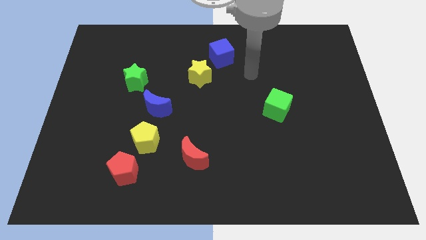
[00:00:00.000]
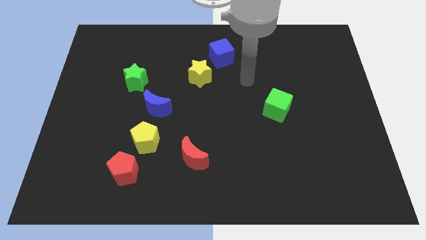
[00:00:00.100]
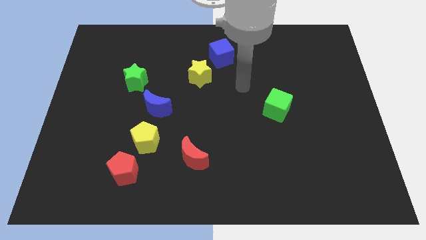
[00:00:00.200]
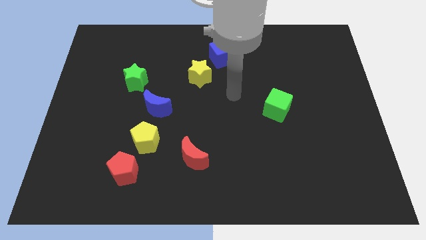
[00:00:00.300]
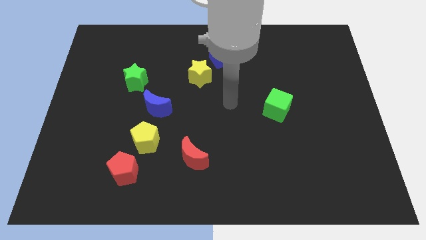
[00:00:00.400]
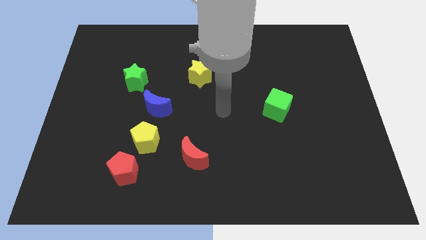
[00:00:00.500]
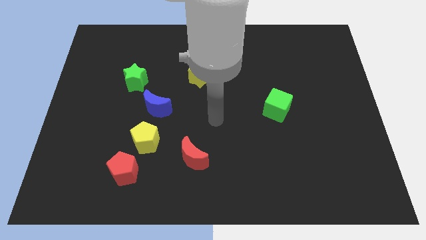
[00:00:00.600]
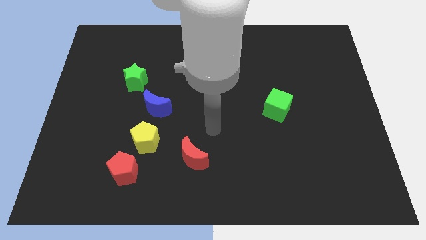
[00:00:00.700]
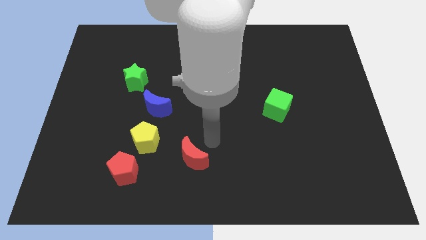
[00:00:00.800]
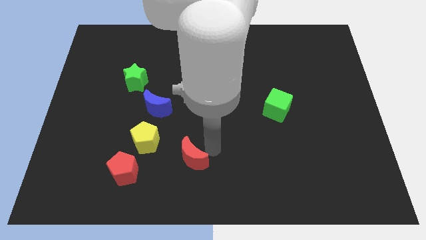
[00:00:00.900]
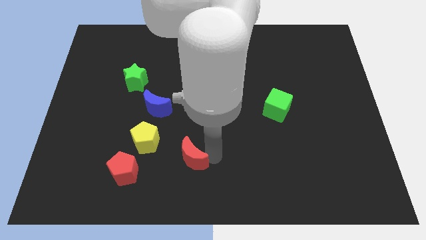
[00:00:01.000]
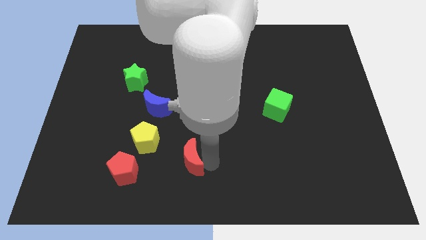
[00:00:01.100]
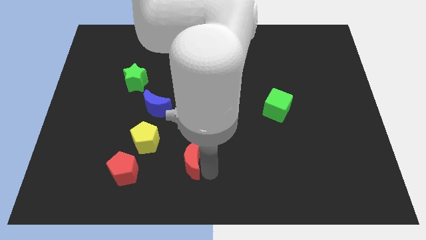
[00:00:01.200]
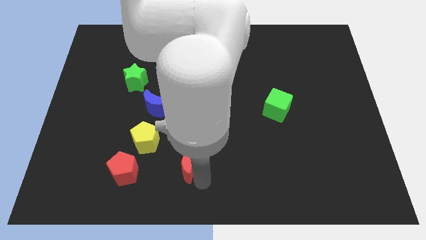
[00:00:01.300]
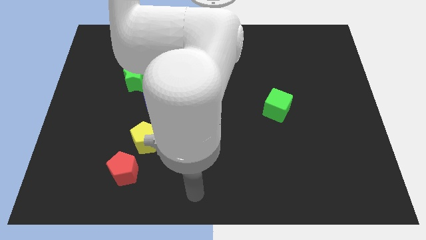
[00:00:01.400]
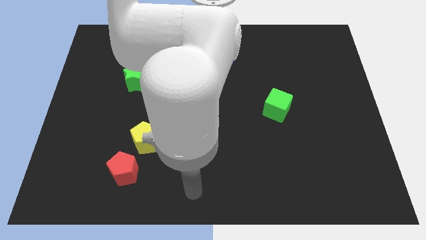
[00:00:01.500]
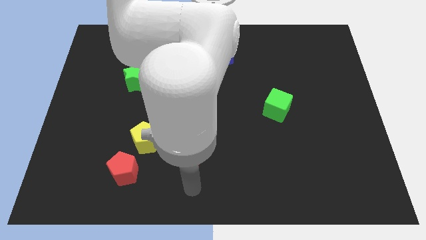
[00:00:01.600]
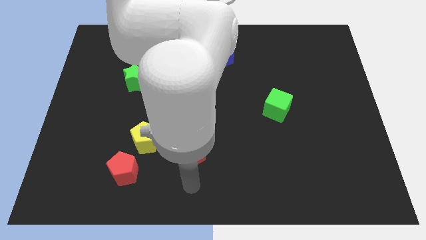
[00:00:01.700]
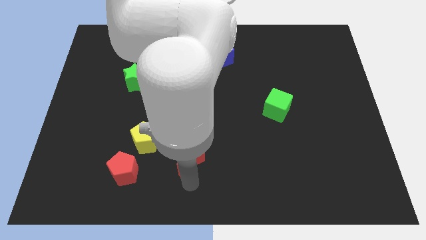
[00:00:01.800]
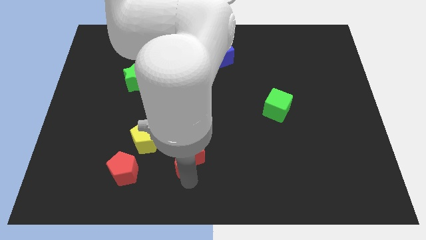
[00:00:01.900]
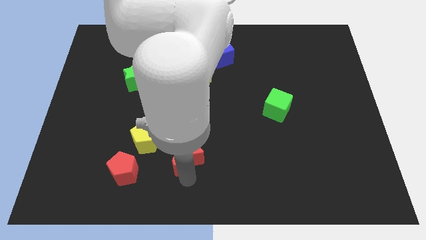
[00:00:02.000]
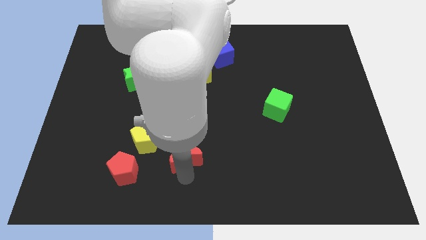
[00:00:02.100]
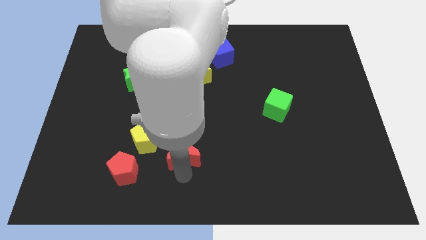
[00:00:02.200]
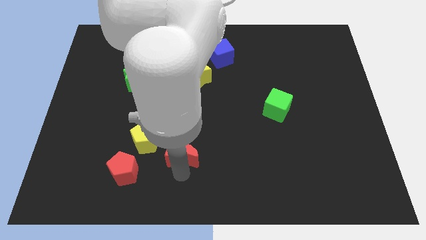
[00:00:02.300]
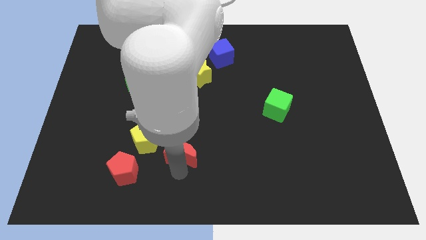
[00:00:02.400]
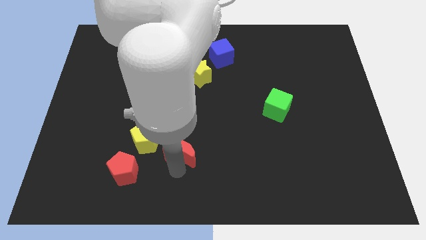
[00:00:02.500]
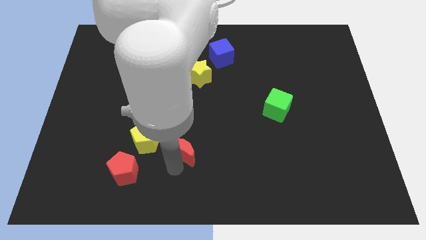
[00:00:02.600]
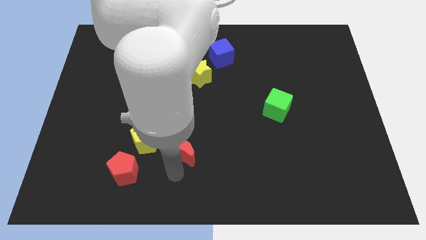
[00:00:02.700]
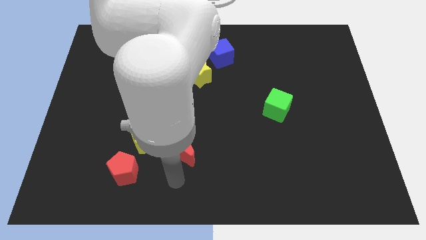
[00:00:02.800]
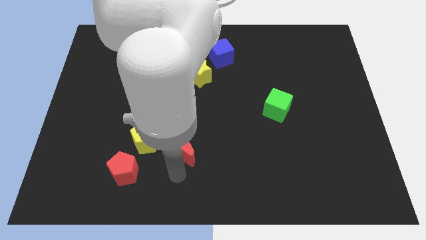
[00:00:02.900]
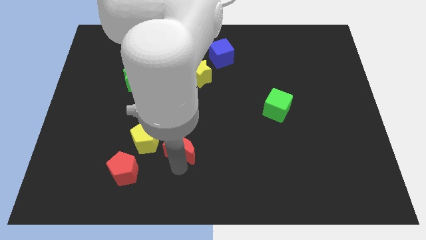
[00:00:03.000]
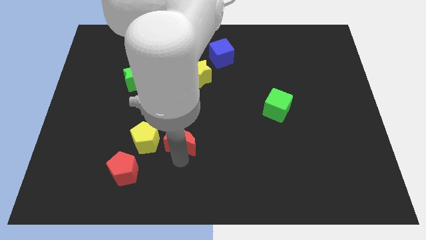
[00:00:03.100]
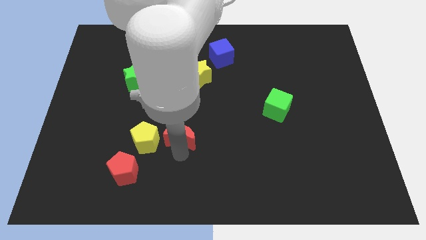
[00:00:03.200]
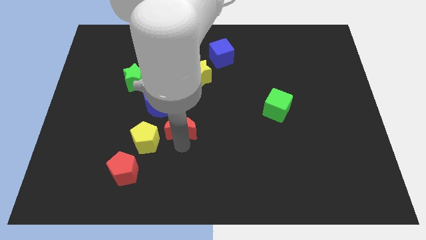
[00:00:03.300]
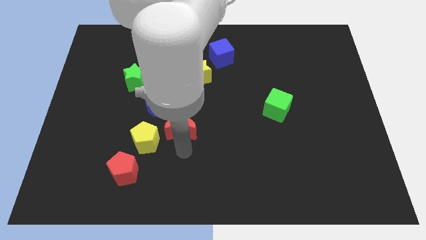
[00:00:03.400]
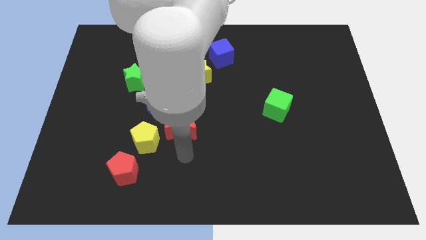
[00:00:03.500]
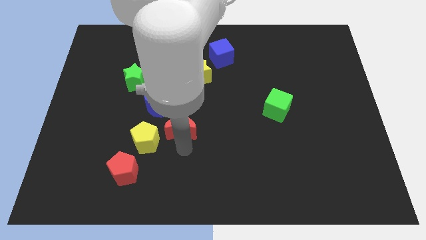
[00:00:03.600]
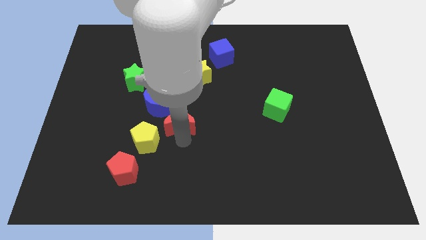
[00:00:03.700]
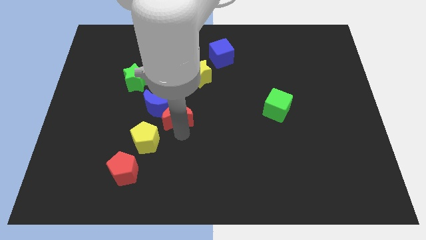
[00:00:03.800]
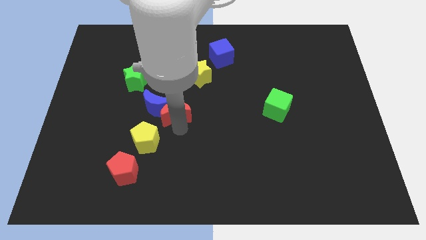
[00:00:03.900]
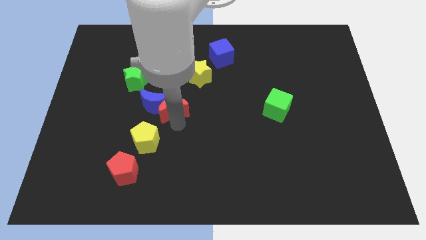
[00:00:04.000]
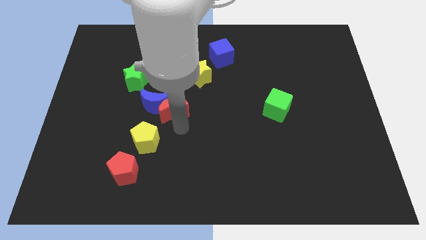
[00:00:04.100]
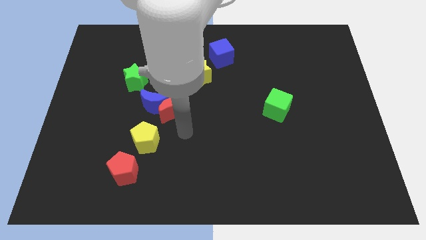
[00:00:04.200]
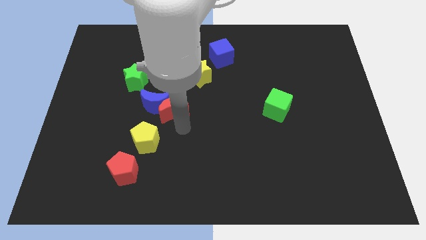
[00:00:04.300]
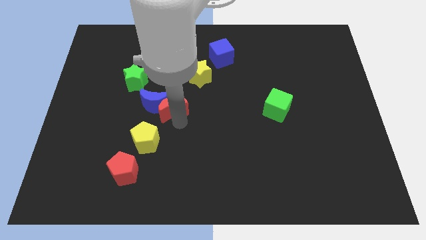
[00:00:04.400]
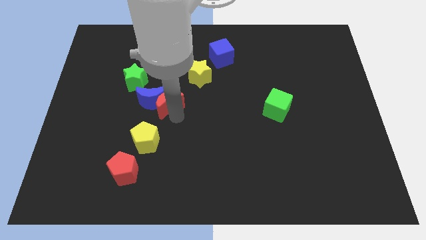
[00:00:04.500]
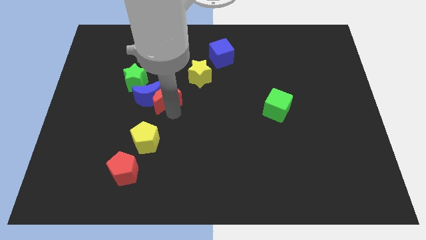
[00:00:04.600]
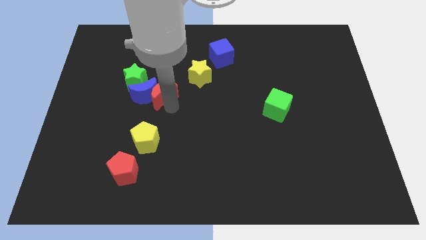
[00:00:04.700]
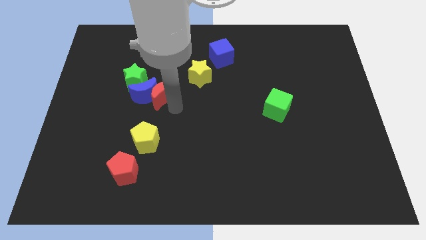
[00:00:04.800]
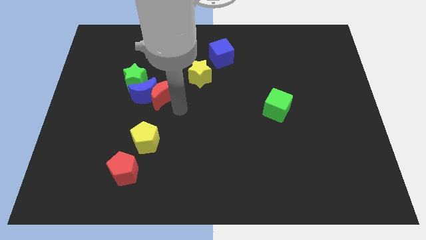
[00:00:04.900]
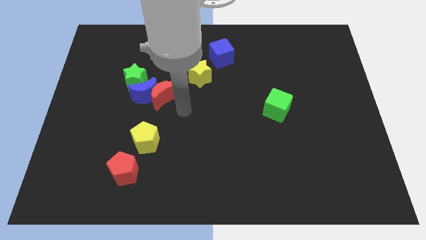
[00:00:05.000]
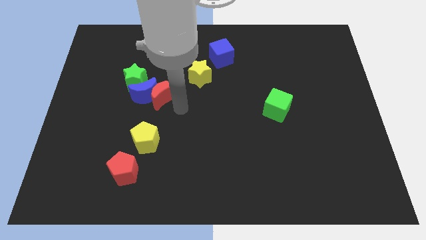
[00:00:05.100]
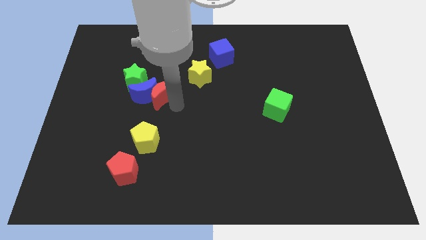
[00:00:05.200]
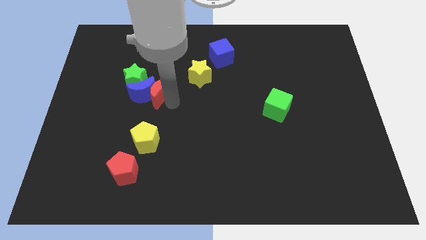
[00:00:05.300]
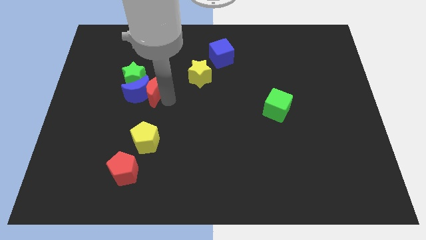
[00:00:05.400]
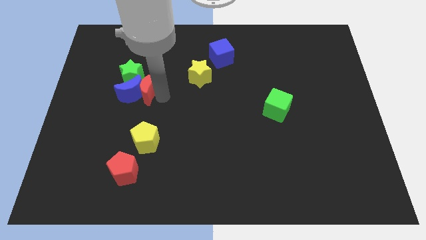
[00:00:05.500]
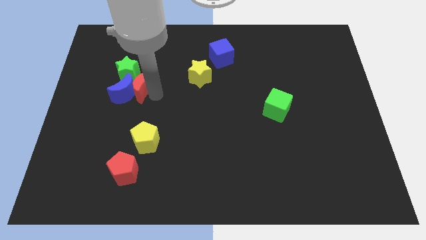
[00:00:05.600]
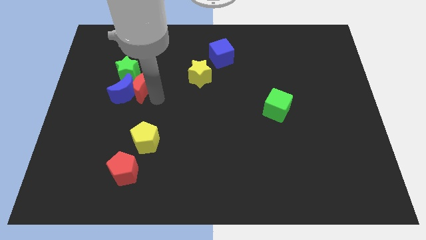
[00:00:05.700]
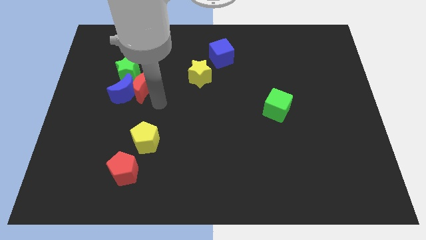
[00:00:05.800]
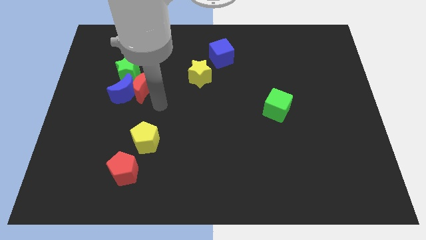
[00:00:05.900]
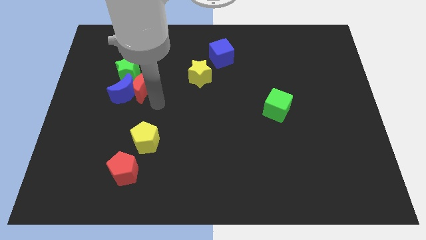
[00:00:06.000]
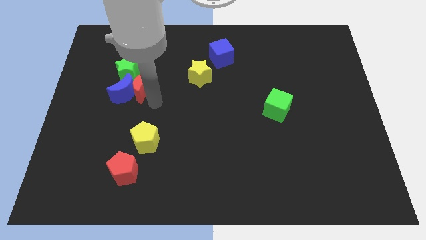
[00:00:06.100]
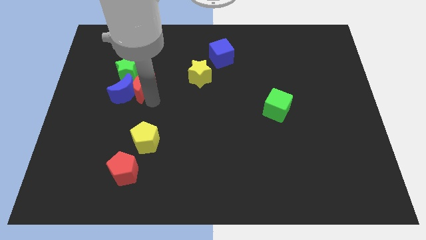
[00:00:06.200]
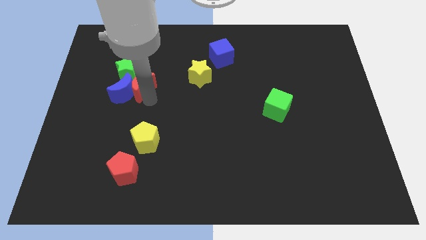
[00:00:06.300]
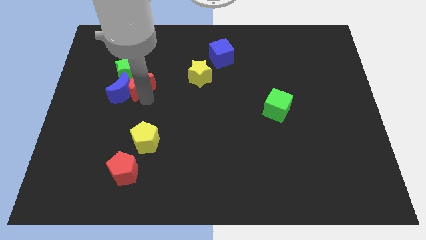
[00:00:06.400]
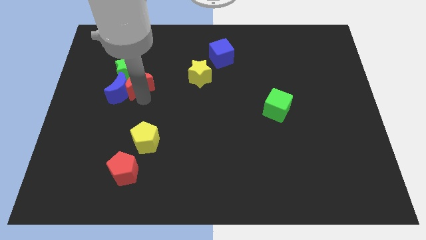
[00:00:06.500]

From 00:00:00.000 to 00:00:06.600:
put the red moon towards the green star

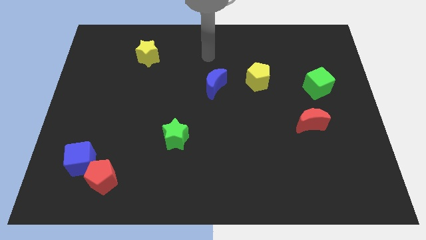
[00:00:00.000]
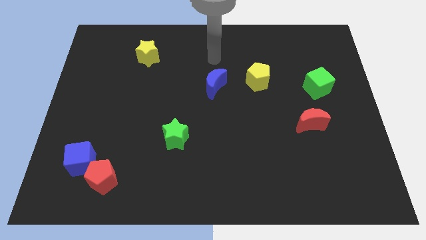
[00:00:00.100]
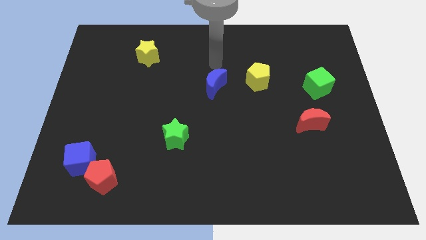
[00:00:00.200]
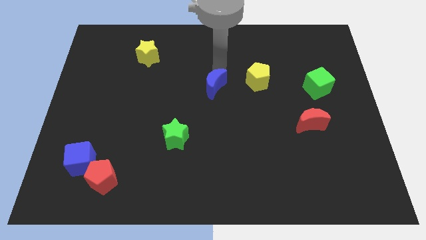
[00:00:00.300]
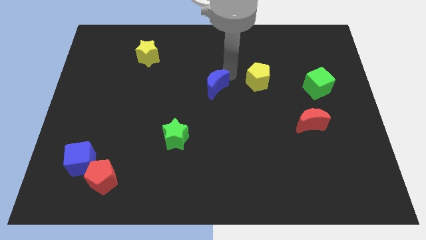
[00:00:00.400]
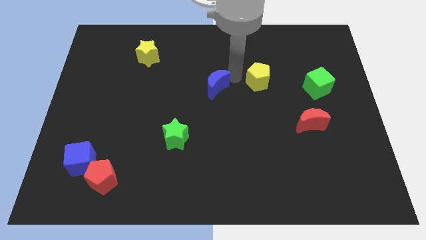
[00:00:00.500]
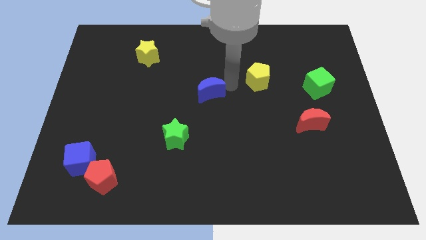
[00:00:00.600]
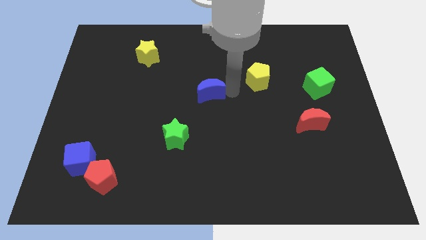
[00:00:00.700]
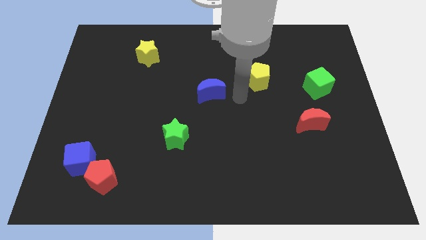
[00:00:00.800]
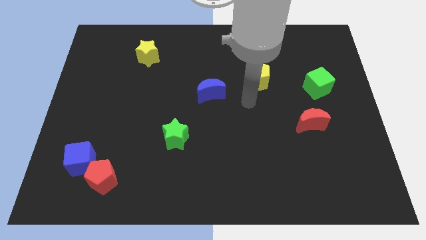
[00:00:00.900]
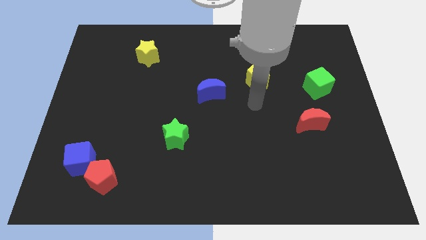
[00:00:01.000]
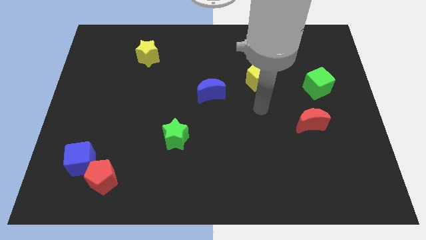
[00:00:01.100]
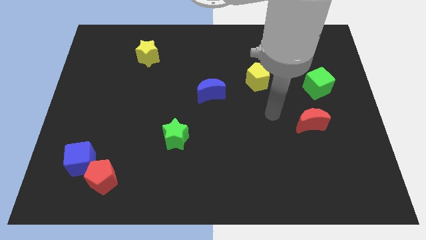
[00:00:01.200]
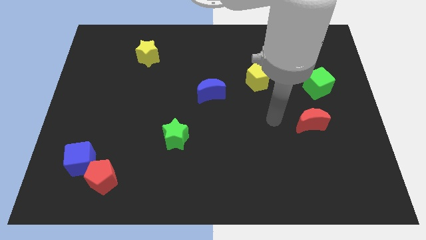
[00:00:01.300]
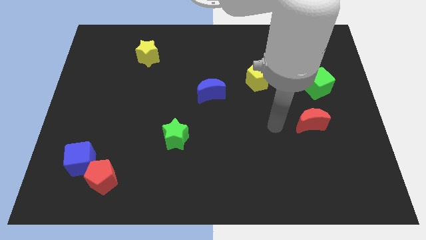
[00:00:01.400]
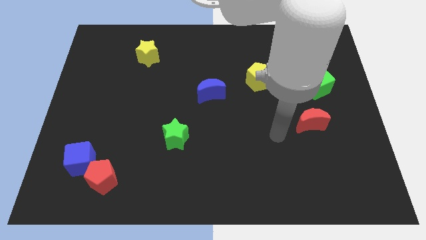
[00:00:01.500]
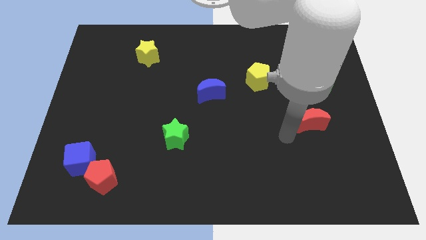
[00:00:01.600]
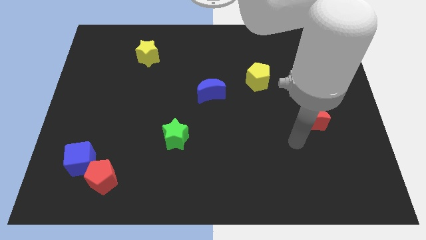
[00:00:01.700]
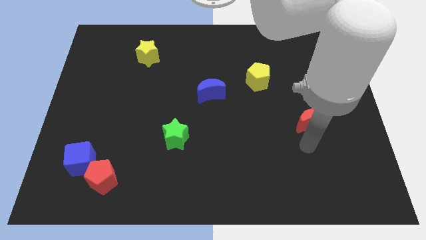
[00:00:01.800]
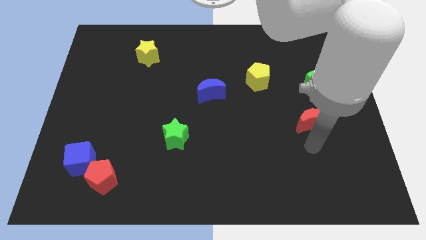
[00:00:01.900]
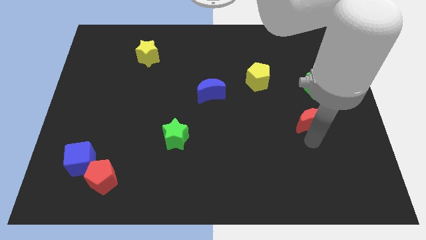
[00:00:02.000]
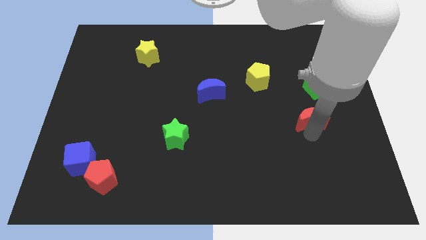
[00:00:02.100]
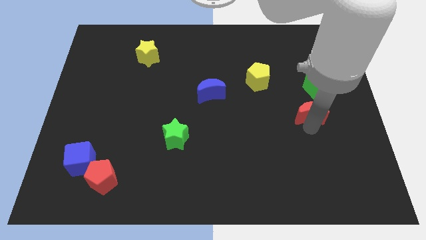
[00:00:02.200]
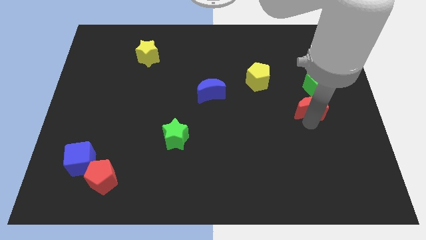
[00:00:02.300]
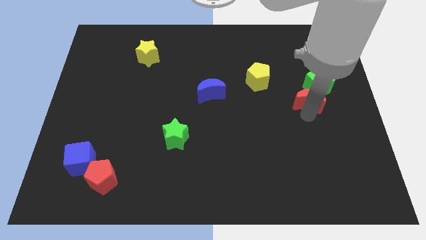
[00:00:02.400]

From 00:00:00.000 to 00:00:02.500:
move the red moon next to the green cube
